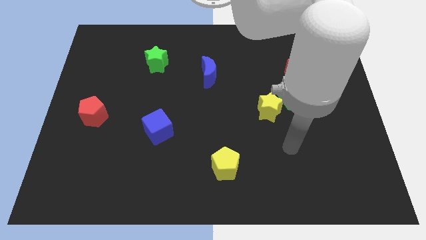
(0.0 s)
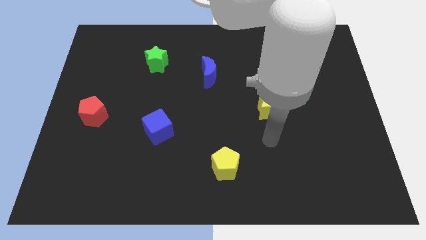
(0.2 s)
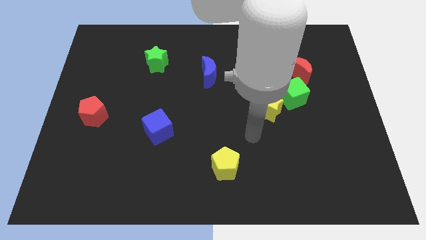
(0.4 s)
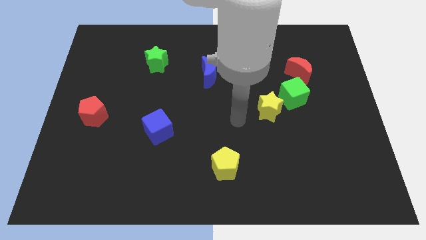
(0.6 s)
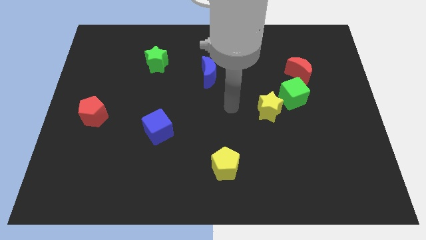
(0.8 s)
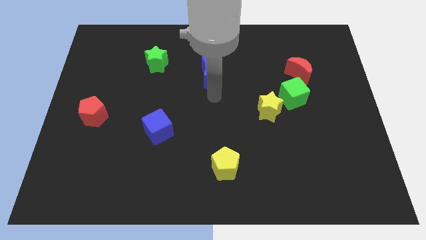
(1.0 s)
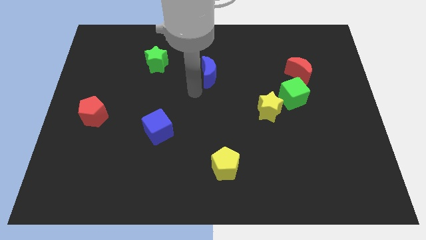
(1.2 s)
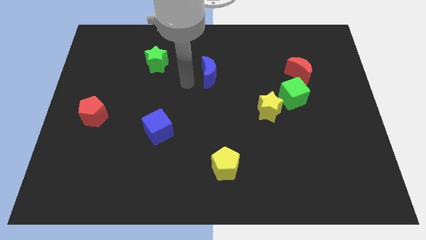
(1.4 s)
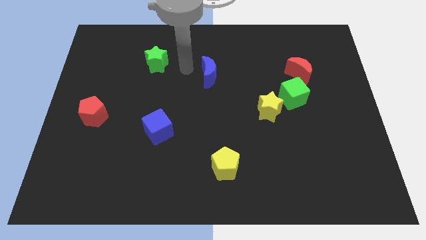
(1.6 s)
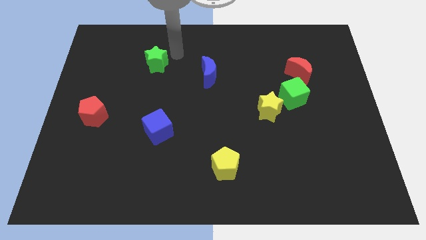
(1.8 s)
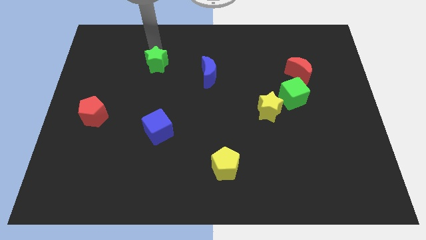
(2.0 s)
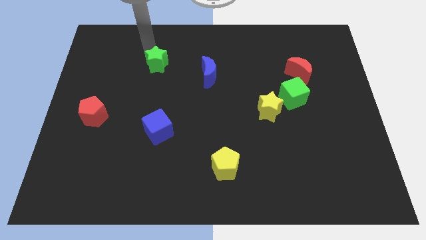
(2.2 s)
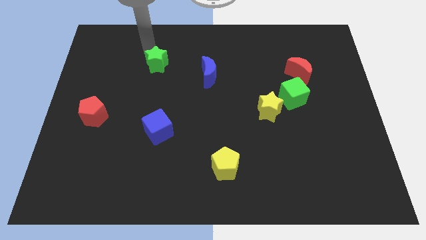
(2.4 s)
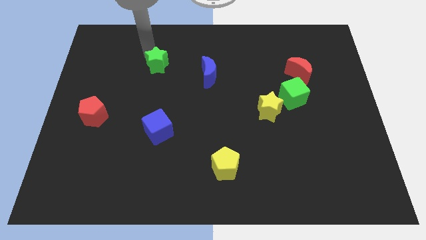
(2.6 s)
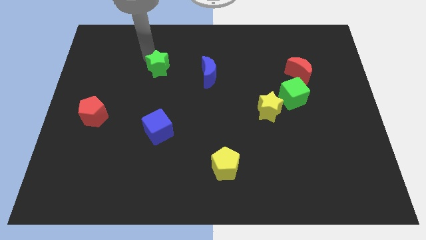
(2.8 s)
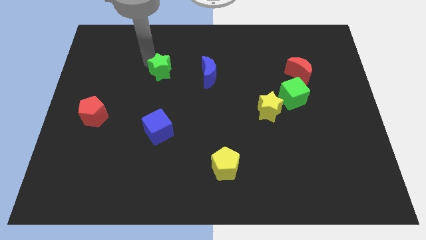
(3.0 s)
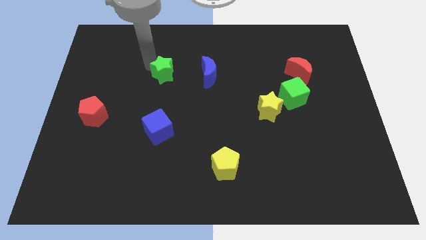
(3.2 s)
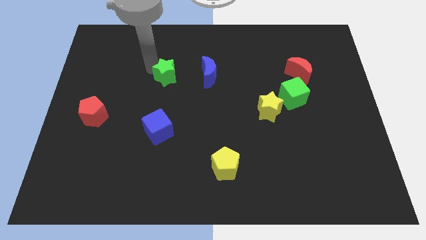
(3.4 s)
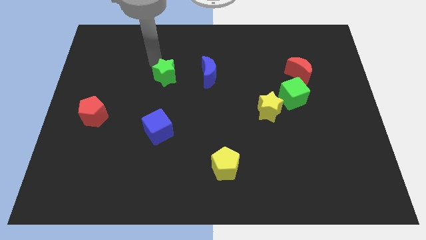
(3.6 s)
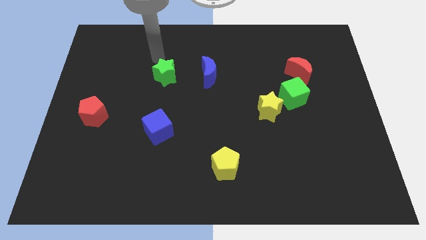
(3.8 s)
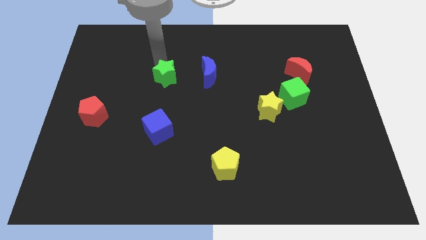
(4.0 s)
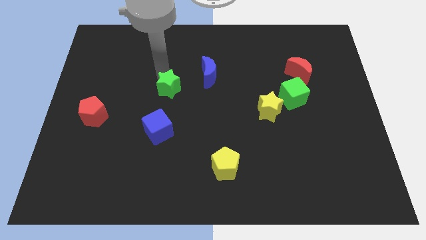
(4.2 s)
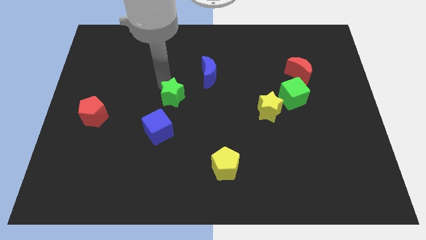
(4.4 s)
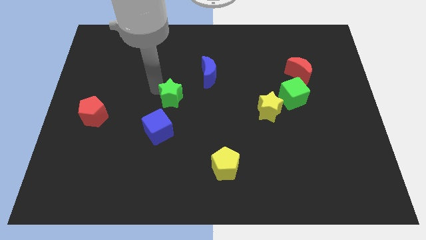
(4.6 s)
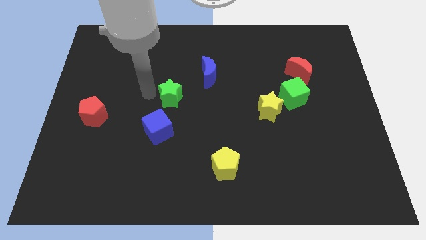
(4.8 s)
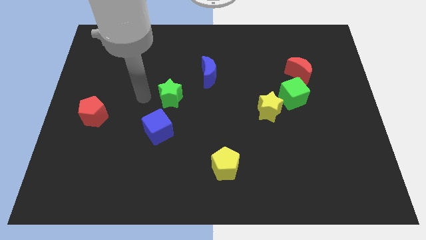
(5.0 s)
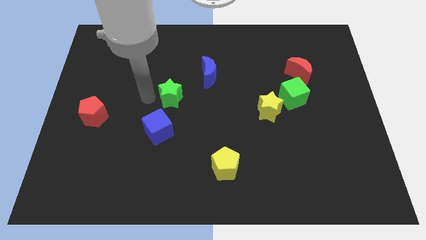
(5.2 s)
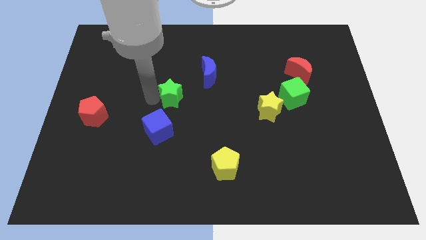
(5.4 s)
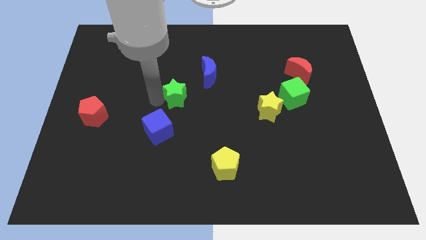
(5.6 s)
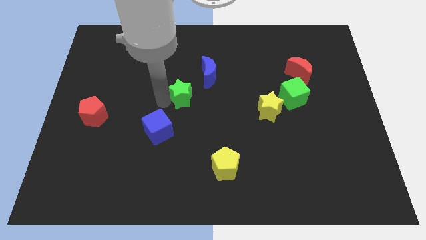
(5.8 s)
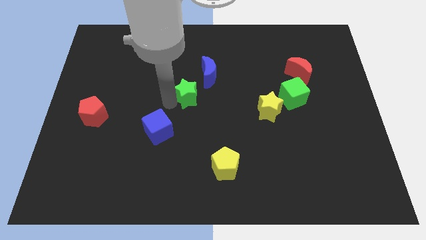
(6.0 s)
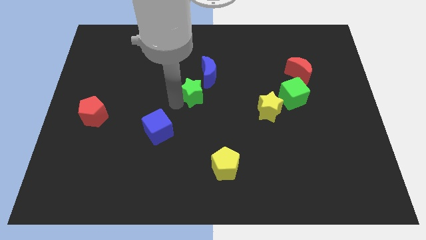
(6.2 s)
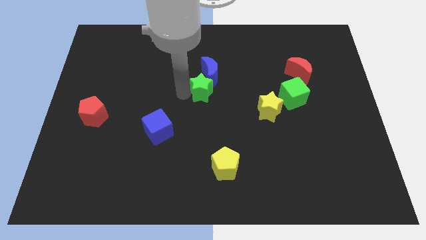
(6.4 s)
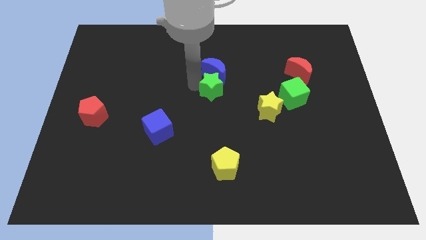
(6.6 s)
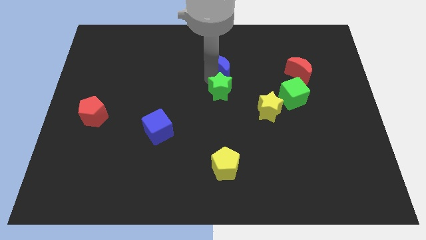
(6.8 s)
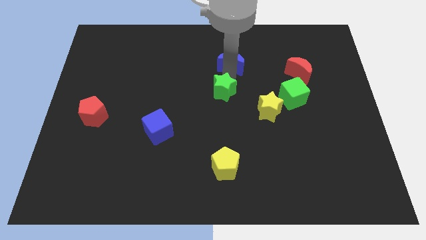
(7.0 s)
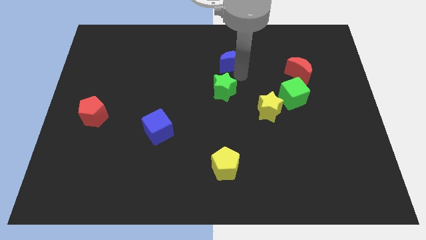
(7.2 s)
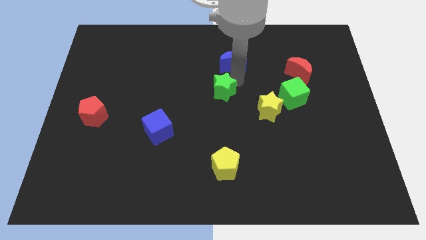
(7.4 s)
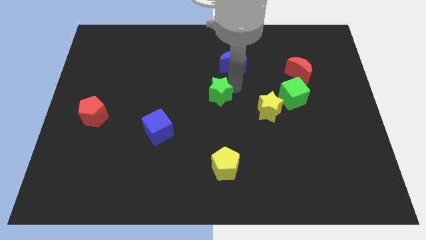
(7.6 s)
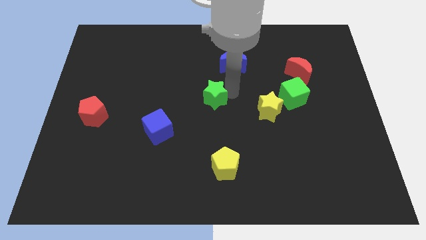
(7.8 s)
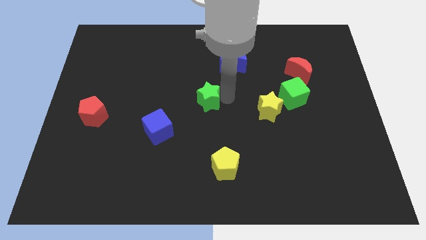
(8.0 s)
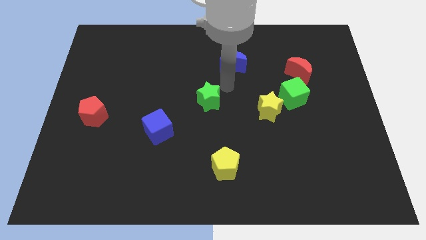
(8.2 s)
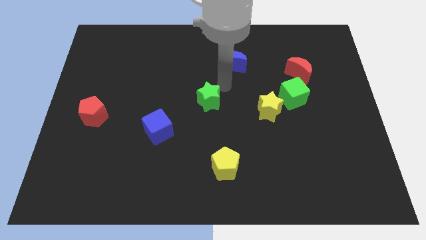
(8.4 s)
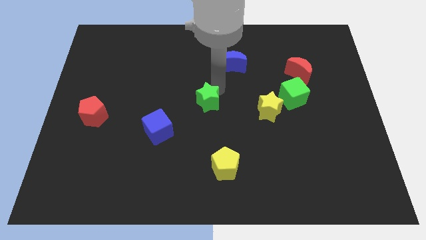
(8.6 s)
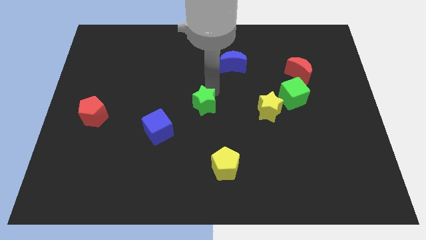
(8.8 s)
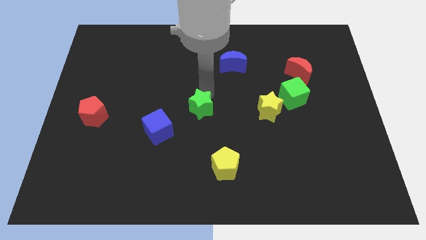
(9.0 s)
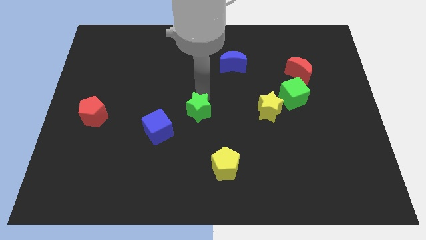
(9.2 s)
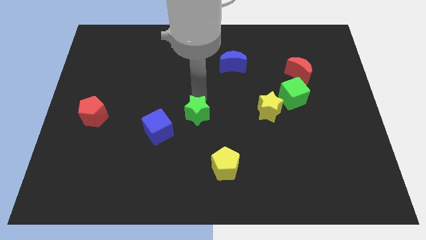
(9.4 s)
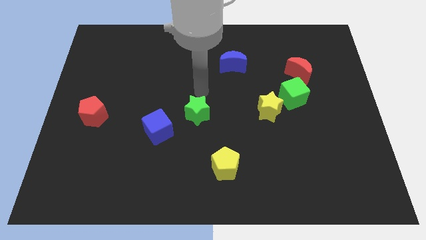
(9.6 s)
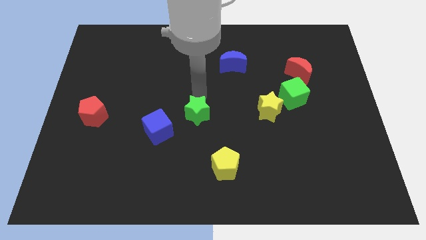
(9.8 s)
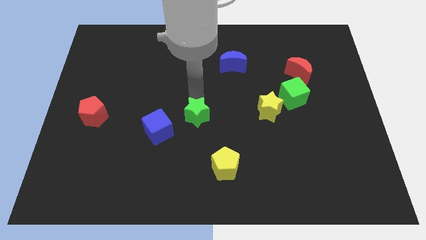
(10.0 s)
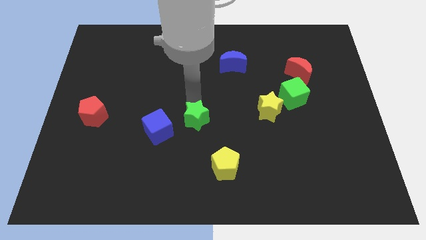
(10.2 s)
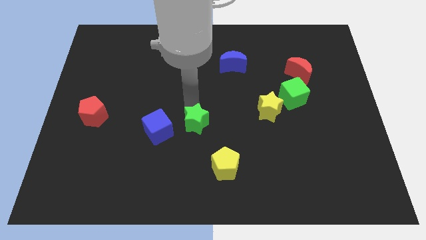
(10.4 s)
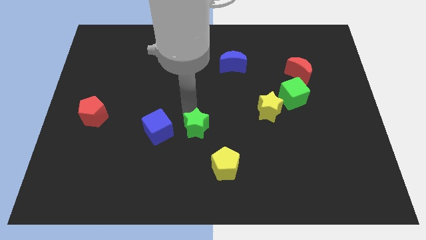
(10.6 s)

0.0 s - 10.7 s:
put the green star to the top left side of the yellow pentagon

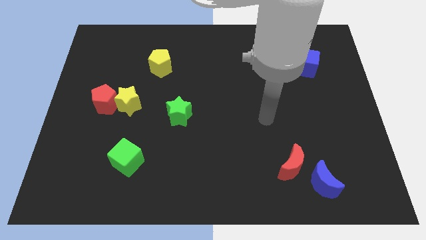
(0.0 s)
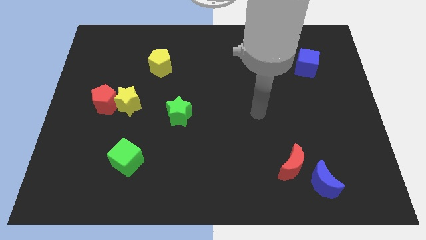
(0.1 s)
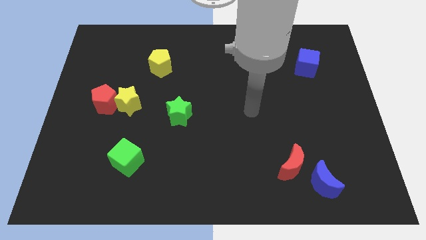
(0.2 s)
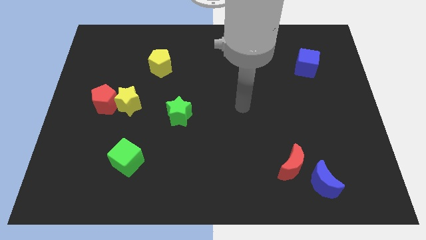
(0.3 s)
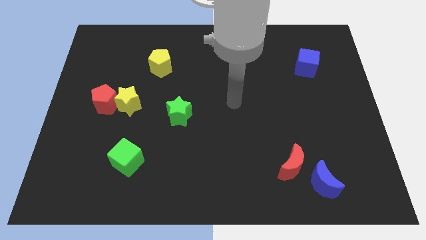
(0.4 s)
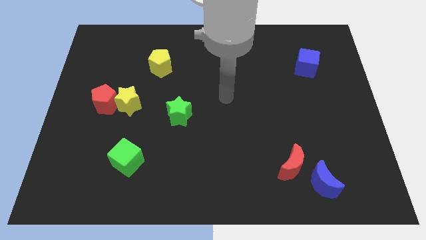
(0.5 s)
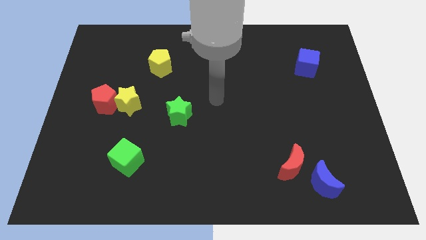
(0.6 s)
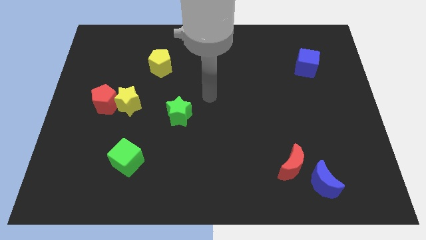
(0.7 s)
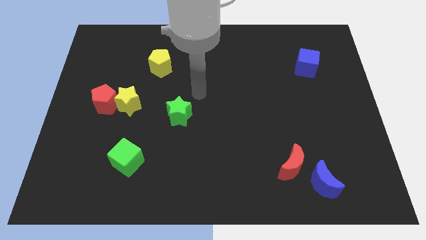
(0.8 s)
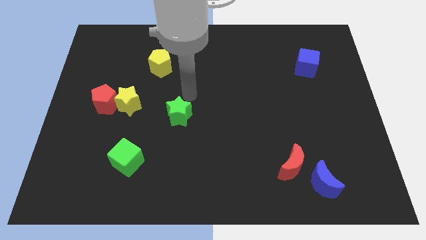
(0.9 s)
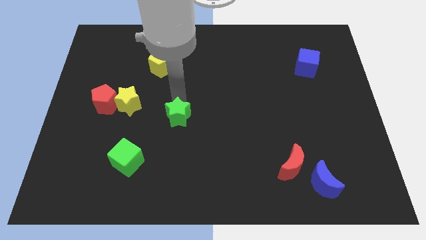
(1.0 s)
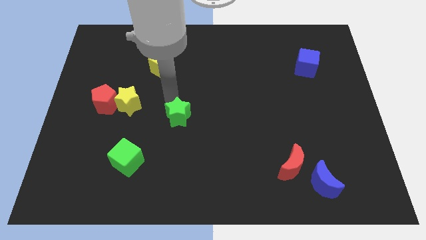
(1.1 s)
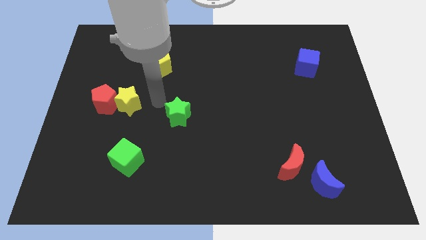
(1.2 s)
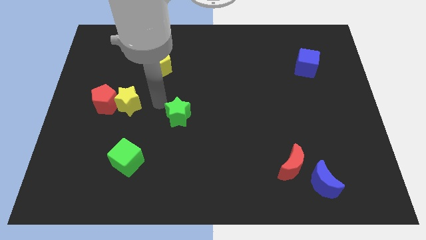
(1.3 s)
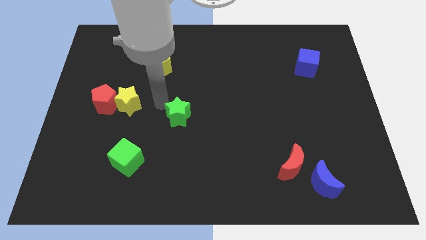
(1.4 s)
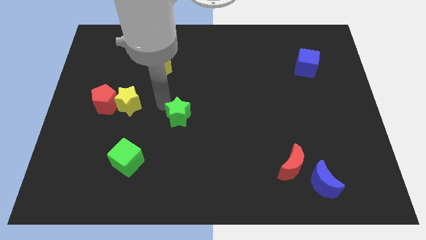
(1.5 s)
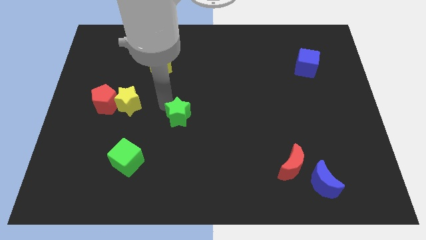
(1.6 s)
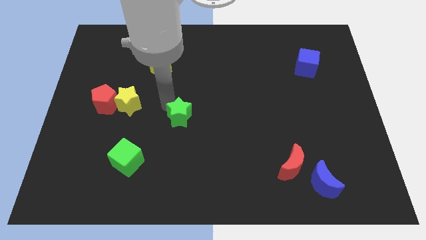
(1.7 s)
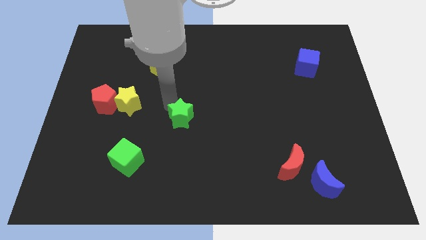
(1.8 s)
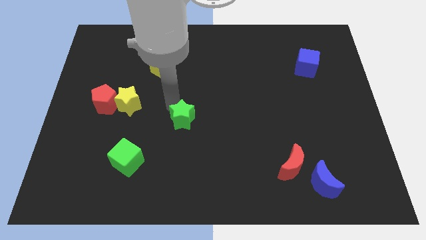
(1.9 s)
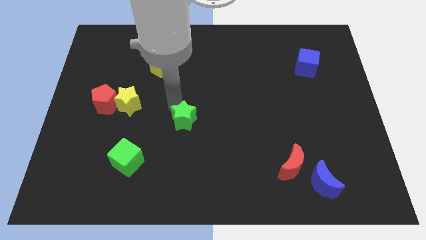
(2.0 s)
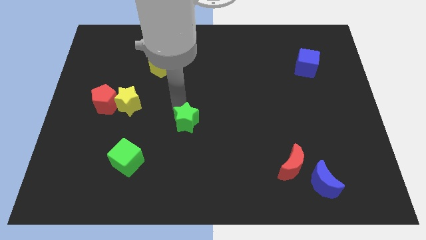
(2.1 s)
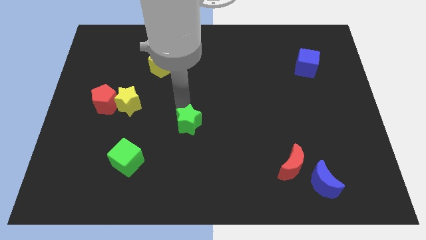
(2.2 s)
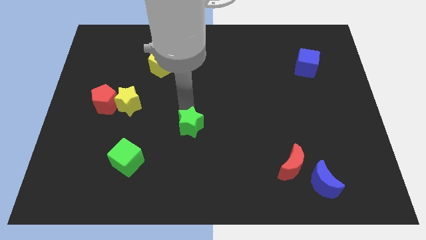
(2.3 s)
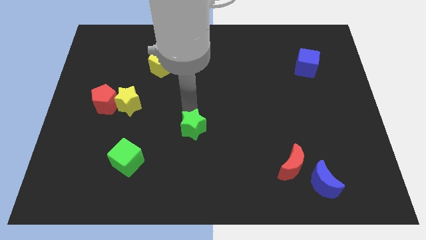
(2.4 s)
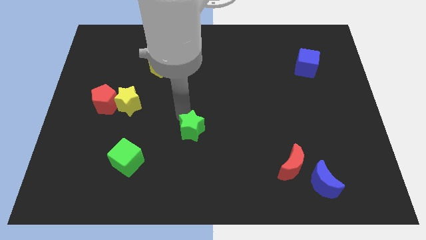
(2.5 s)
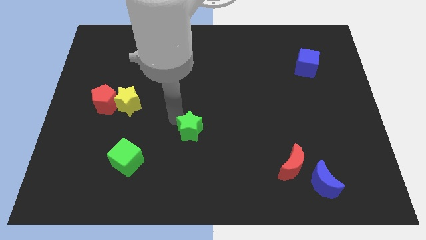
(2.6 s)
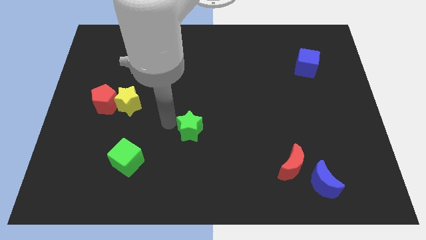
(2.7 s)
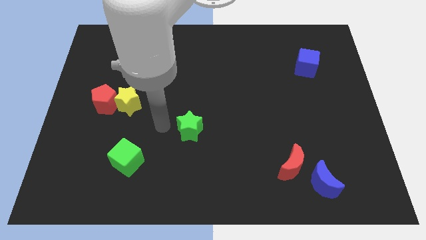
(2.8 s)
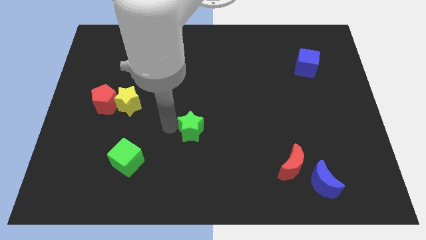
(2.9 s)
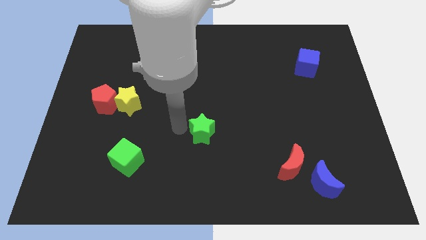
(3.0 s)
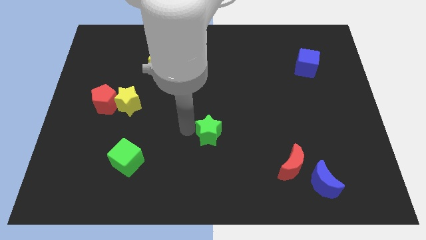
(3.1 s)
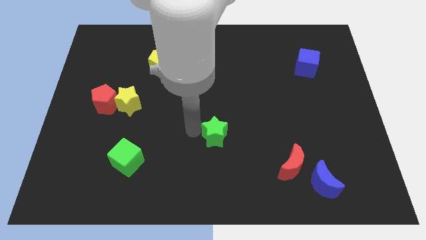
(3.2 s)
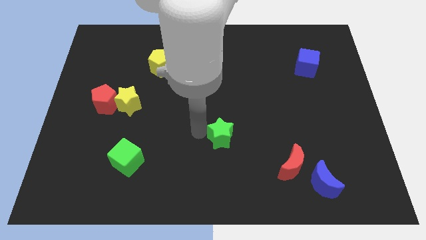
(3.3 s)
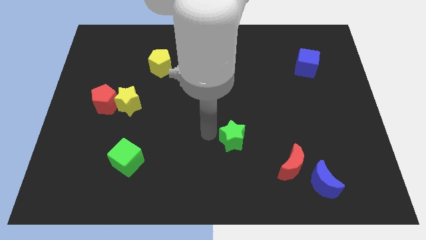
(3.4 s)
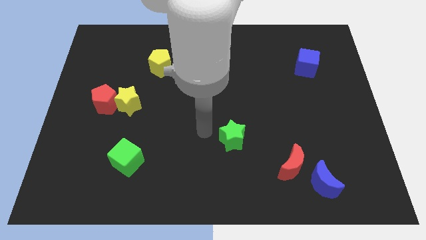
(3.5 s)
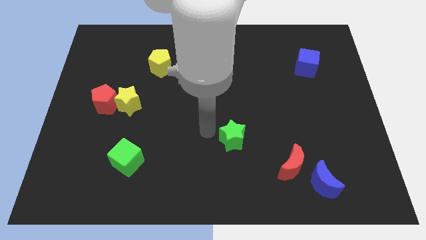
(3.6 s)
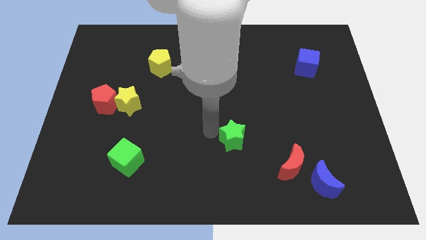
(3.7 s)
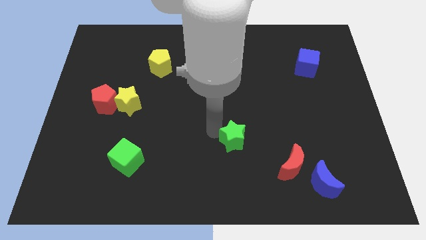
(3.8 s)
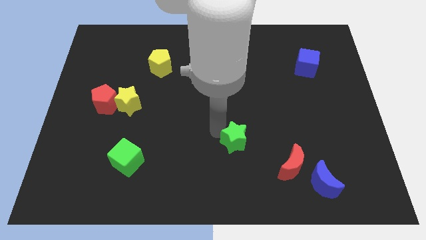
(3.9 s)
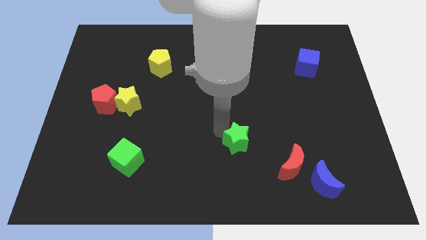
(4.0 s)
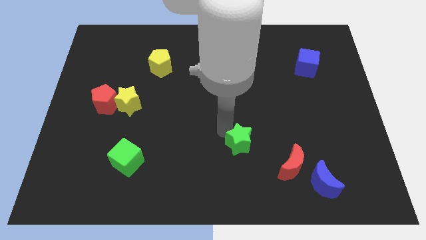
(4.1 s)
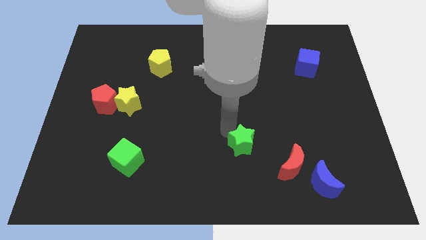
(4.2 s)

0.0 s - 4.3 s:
put the green star to the top left of the red moon
